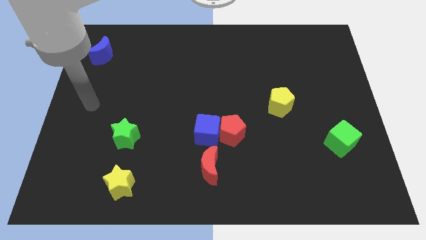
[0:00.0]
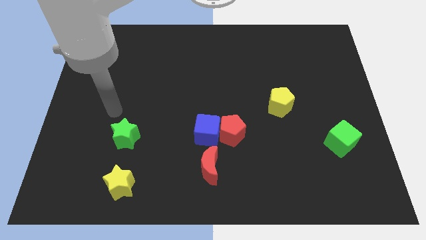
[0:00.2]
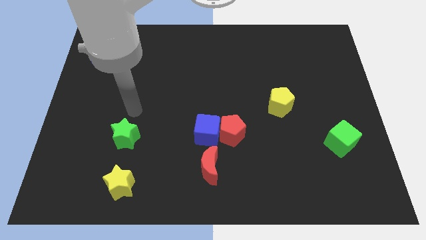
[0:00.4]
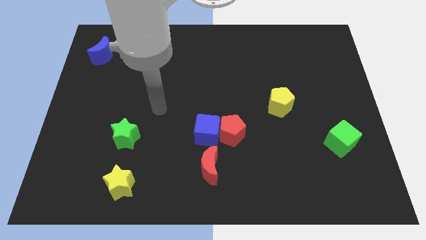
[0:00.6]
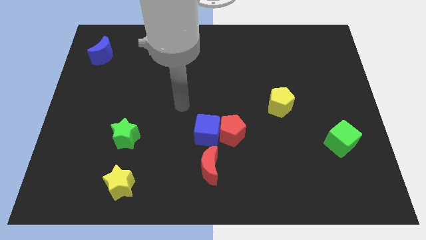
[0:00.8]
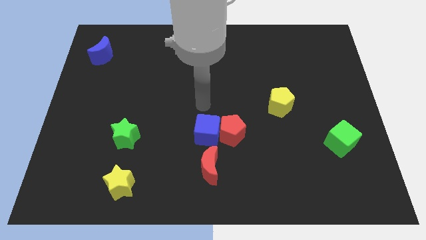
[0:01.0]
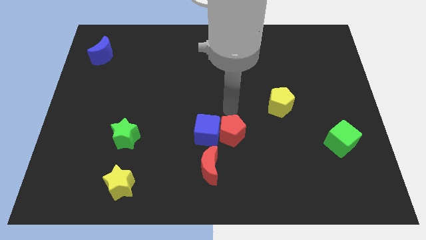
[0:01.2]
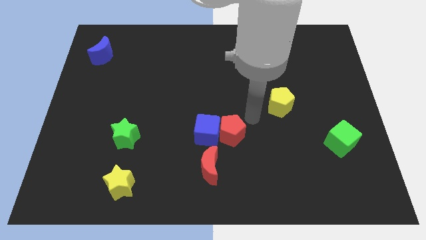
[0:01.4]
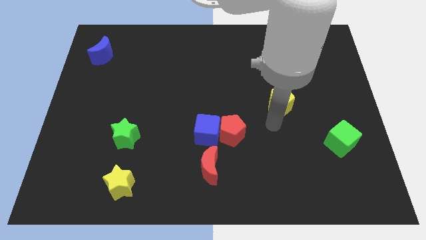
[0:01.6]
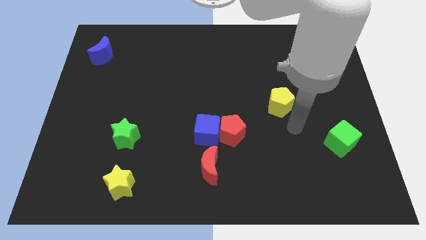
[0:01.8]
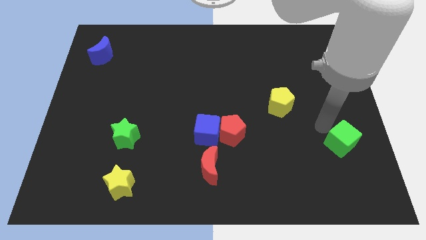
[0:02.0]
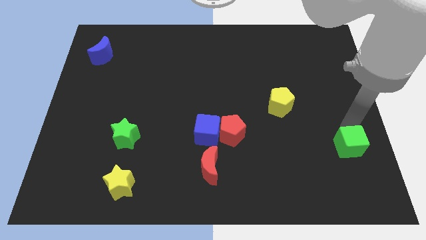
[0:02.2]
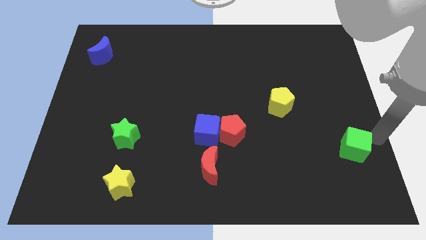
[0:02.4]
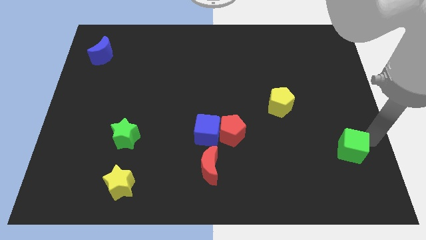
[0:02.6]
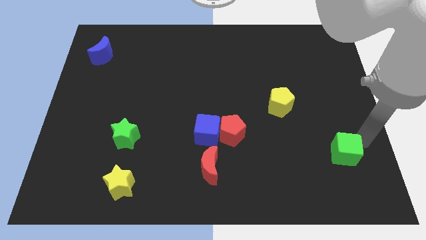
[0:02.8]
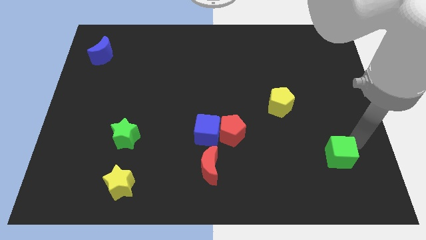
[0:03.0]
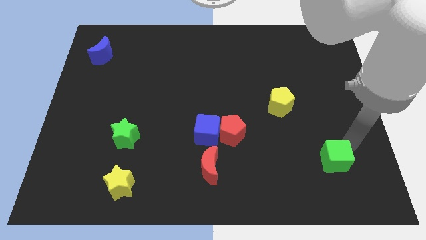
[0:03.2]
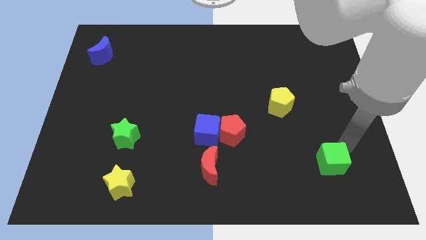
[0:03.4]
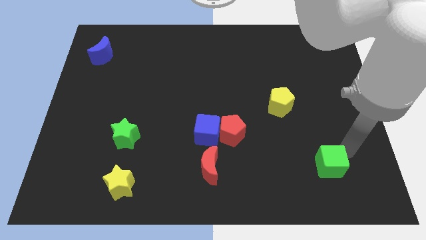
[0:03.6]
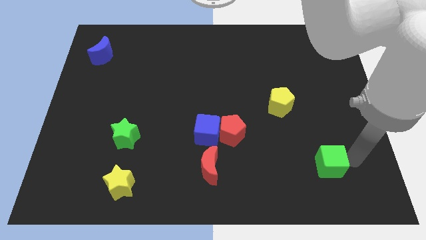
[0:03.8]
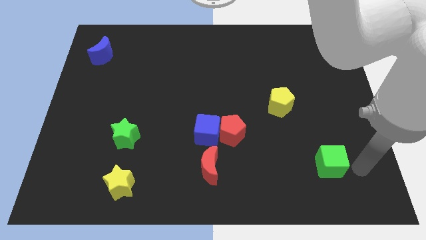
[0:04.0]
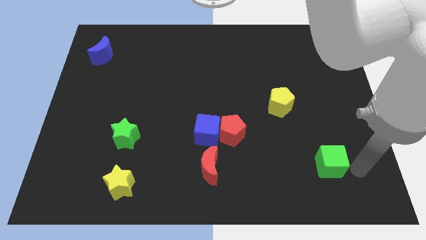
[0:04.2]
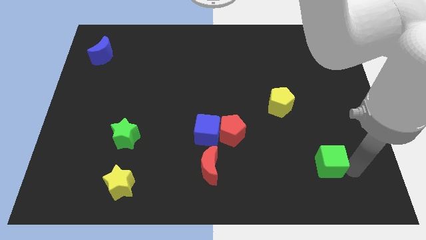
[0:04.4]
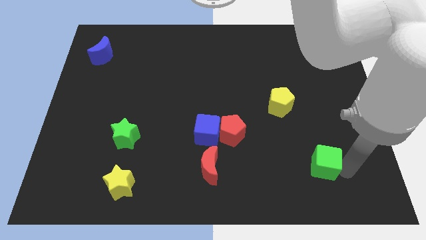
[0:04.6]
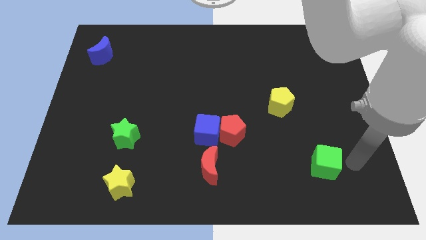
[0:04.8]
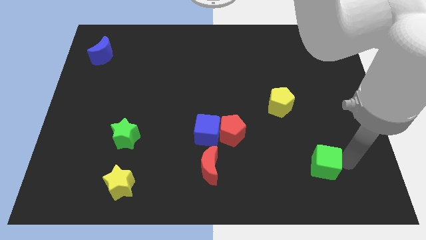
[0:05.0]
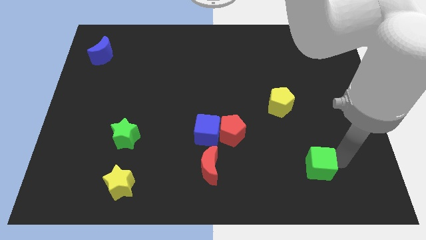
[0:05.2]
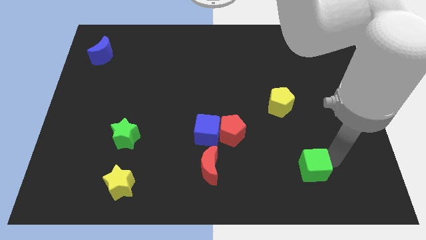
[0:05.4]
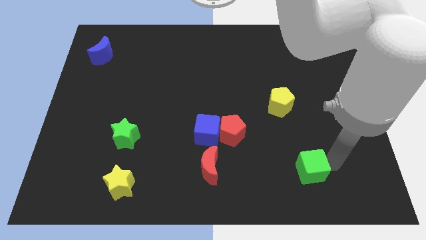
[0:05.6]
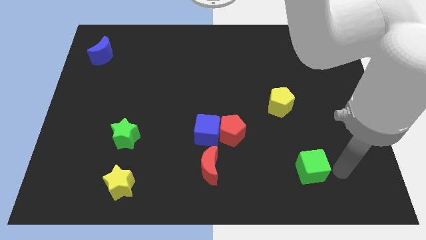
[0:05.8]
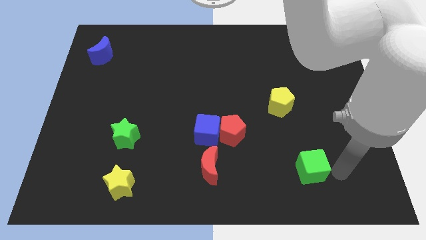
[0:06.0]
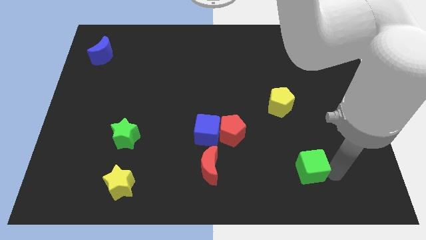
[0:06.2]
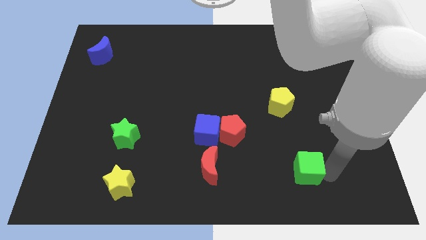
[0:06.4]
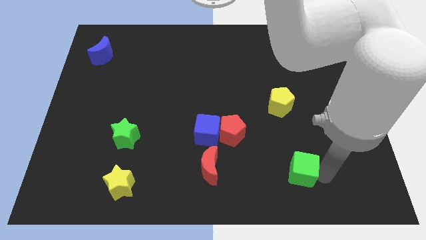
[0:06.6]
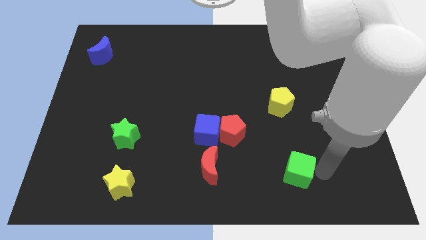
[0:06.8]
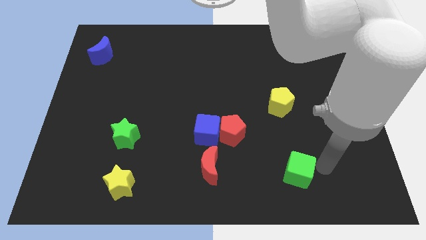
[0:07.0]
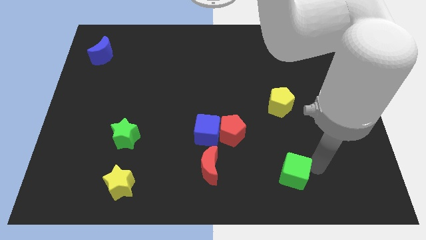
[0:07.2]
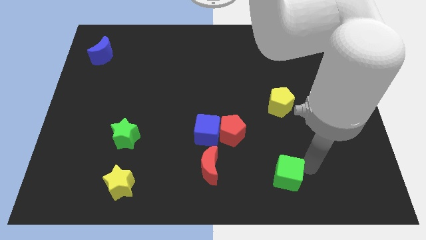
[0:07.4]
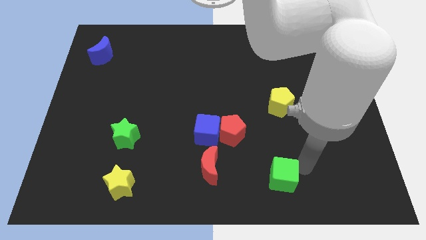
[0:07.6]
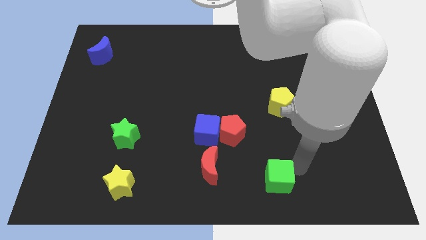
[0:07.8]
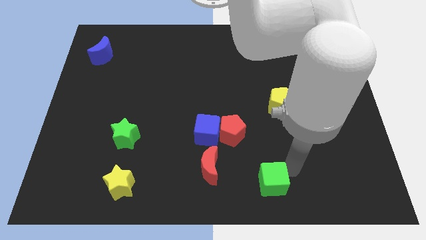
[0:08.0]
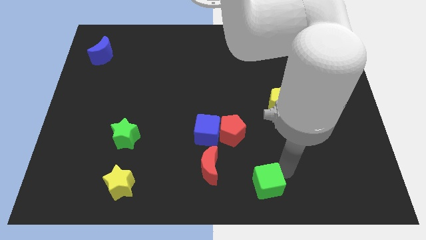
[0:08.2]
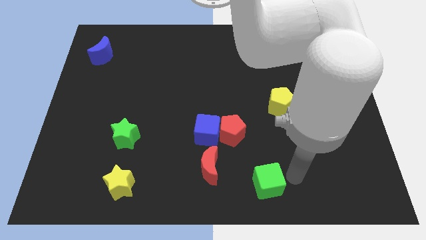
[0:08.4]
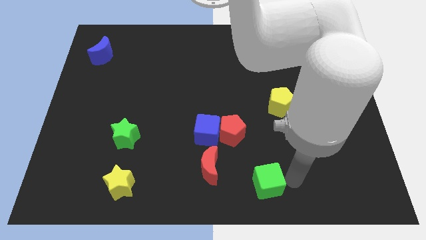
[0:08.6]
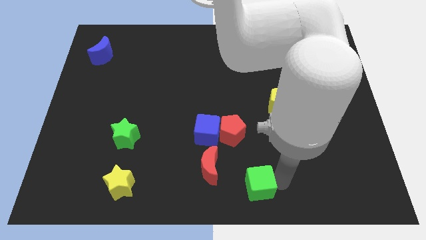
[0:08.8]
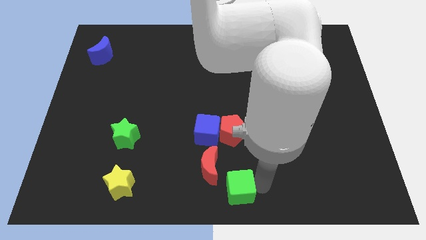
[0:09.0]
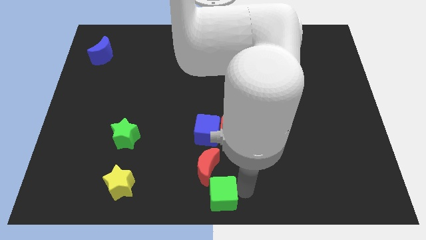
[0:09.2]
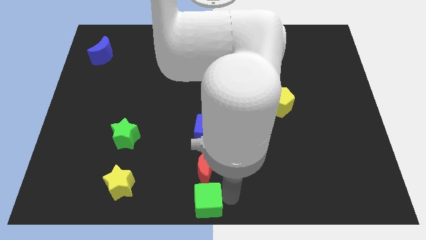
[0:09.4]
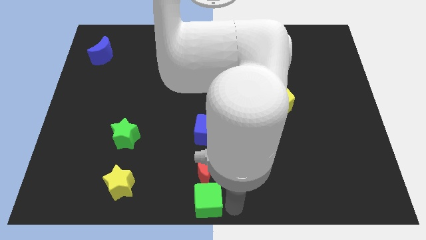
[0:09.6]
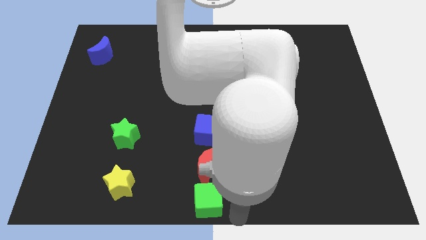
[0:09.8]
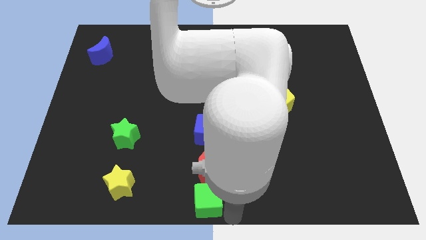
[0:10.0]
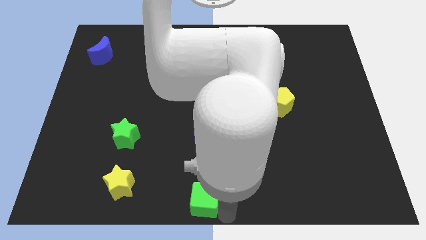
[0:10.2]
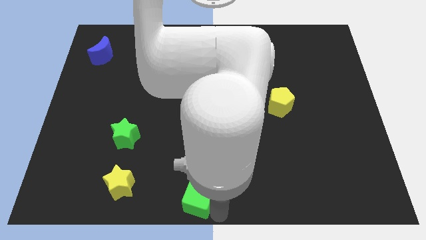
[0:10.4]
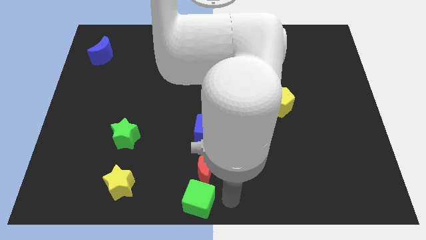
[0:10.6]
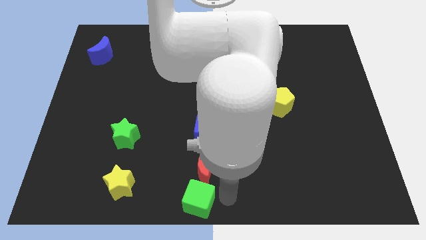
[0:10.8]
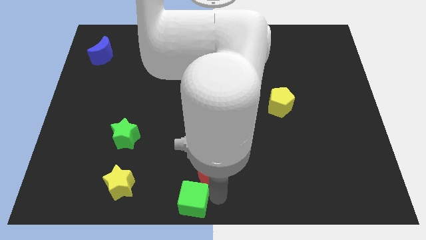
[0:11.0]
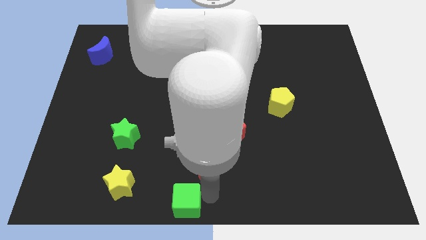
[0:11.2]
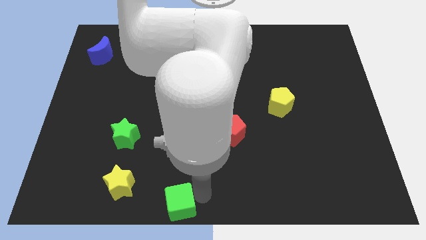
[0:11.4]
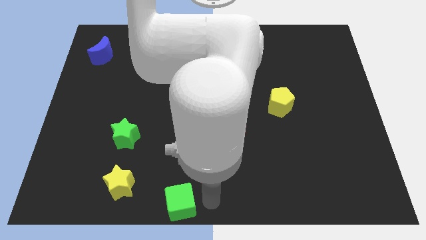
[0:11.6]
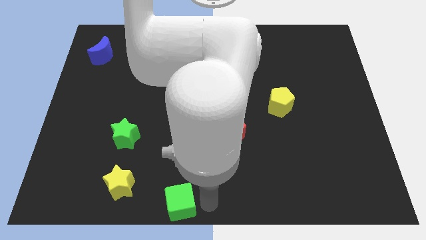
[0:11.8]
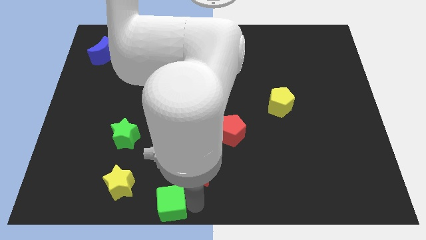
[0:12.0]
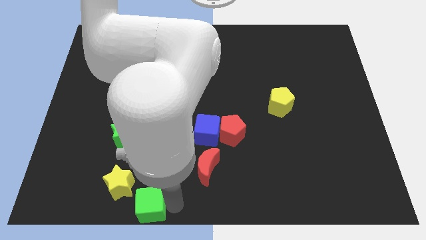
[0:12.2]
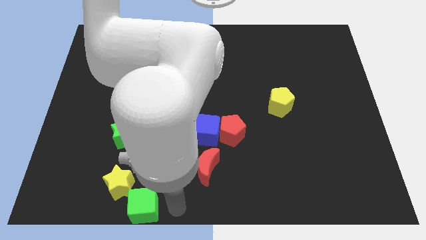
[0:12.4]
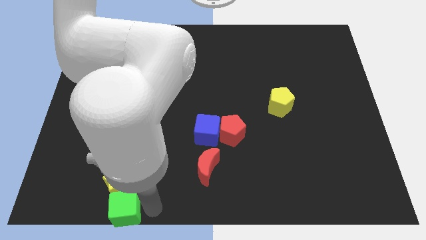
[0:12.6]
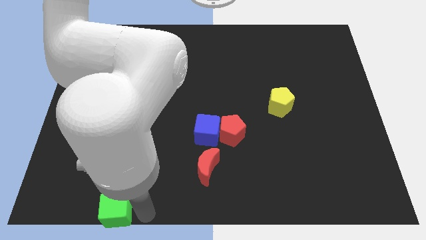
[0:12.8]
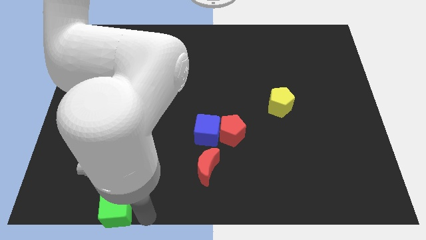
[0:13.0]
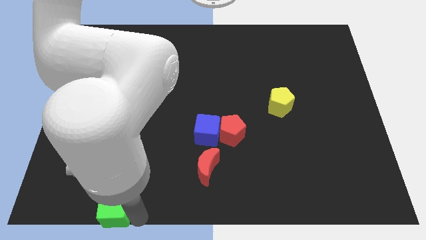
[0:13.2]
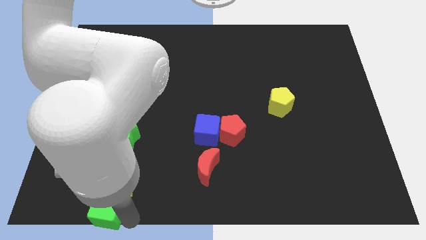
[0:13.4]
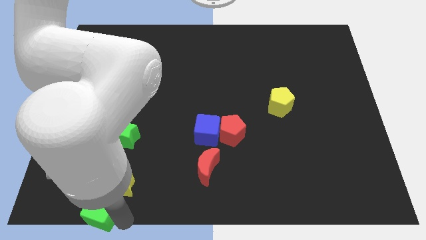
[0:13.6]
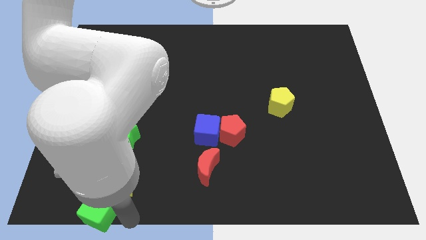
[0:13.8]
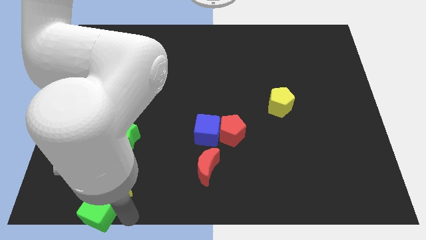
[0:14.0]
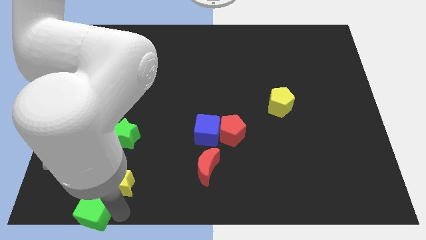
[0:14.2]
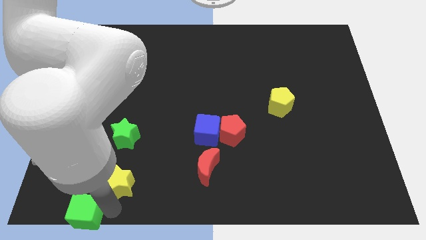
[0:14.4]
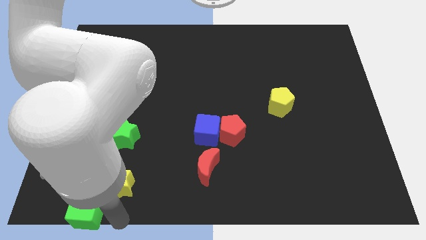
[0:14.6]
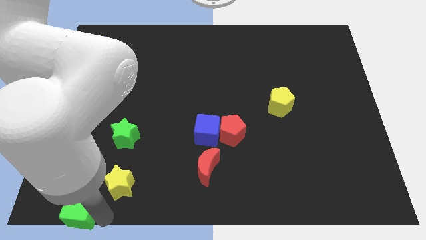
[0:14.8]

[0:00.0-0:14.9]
slide the green cube to the bottom left of the board
